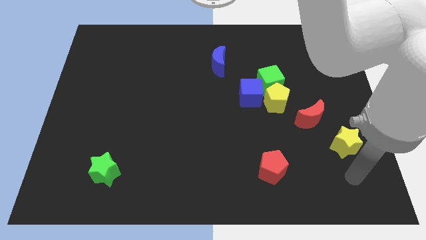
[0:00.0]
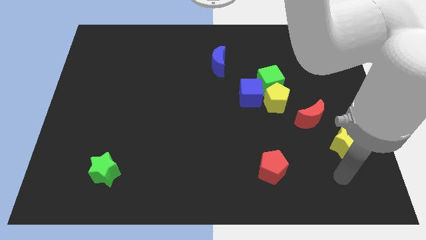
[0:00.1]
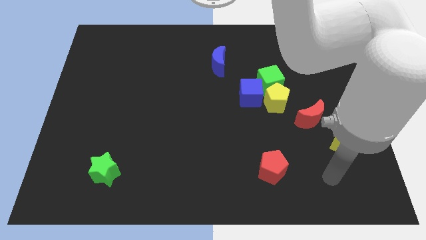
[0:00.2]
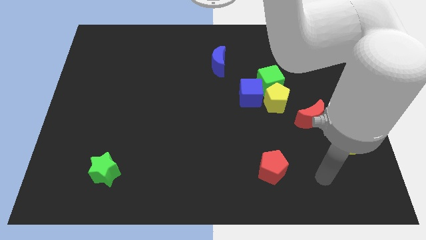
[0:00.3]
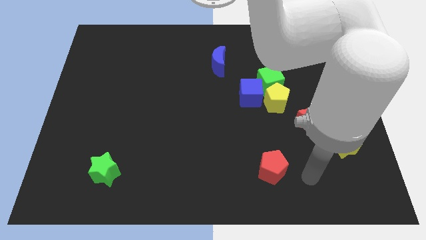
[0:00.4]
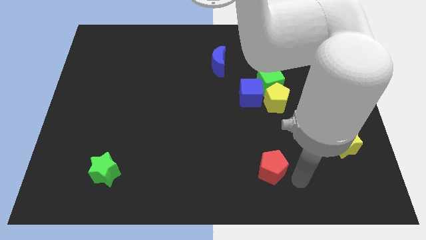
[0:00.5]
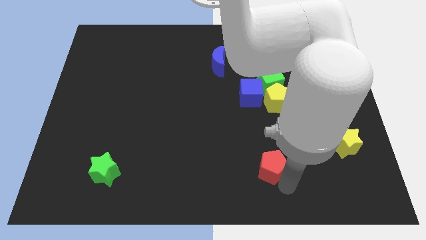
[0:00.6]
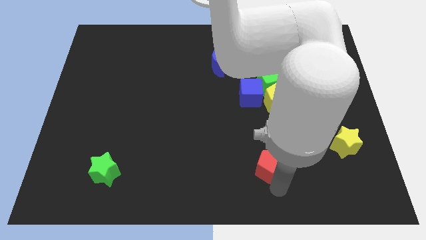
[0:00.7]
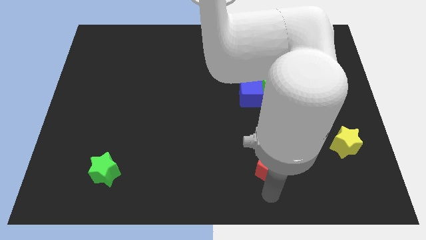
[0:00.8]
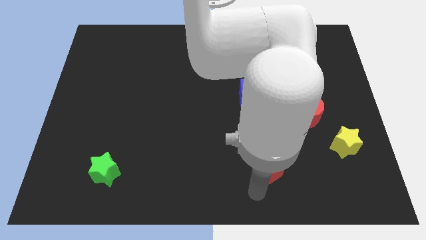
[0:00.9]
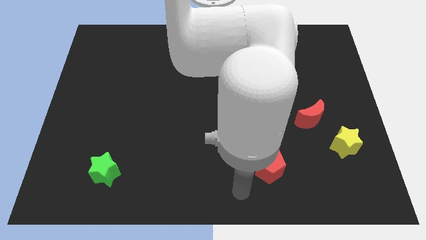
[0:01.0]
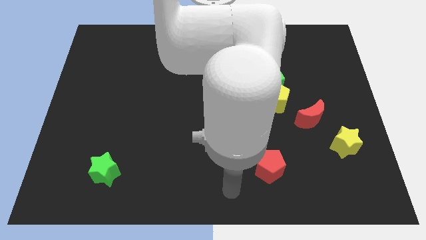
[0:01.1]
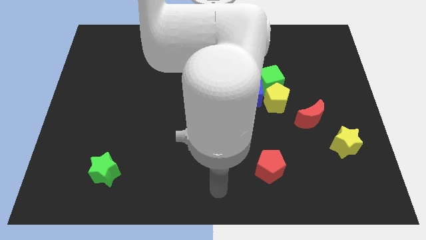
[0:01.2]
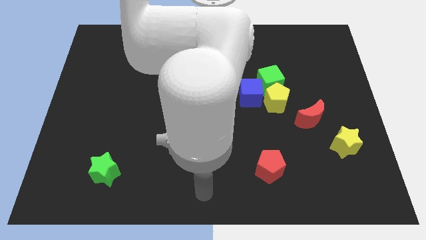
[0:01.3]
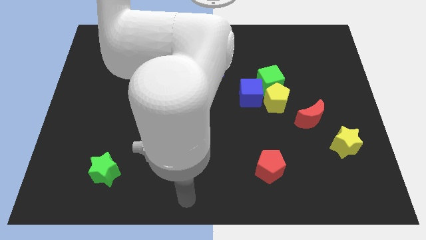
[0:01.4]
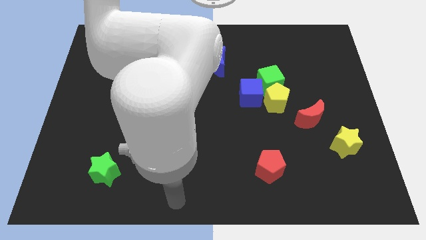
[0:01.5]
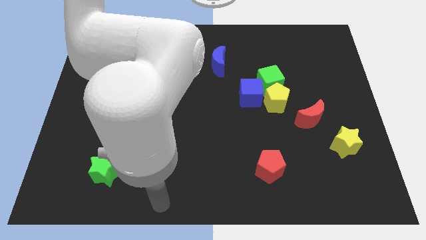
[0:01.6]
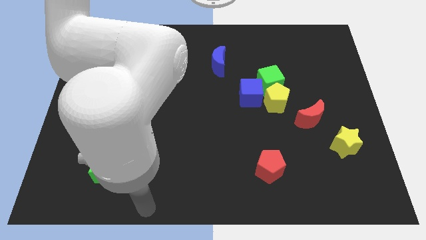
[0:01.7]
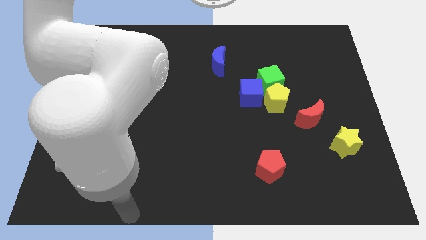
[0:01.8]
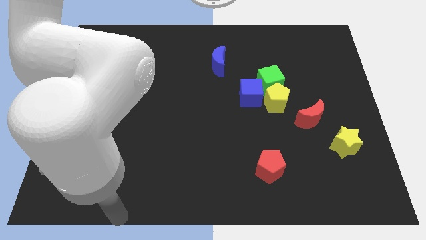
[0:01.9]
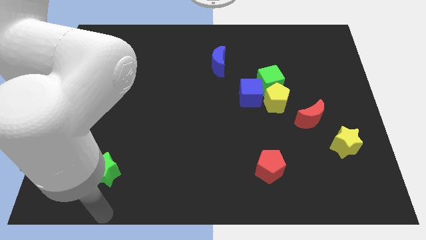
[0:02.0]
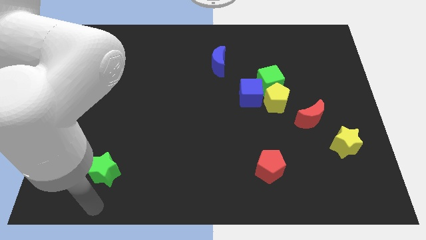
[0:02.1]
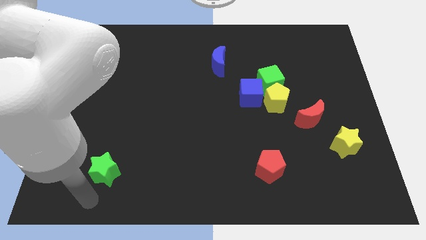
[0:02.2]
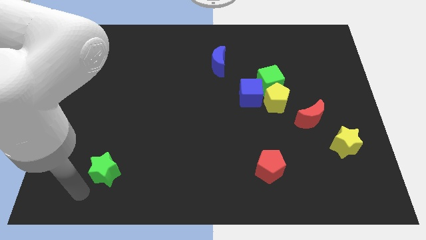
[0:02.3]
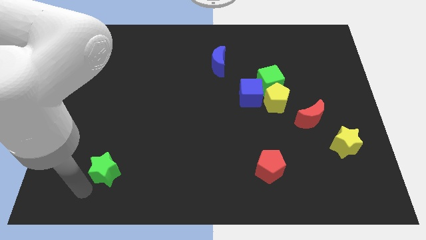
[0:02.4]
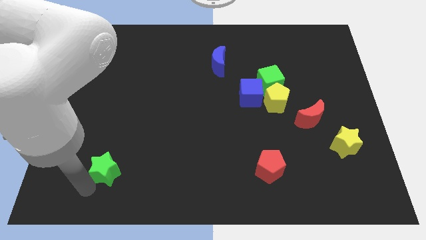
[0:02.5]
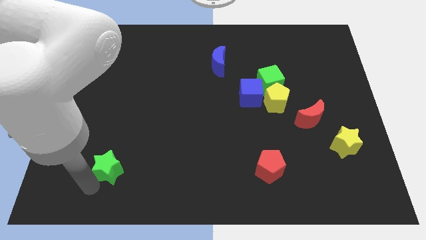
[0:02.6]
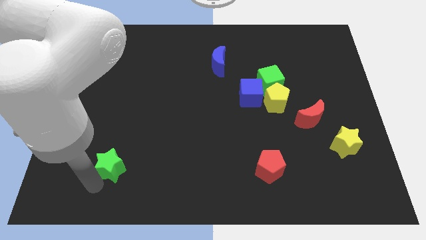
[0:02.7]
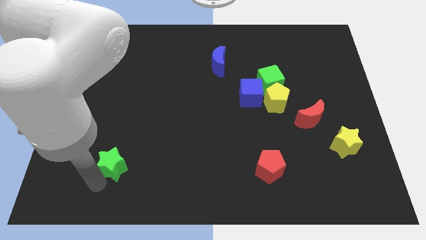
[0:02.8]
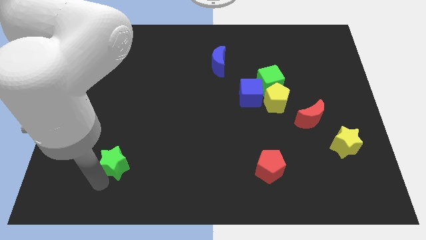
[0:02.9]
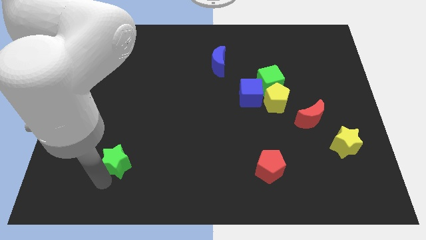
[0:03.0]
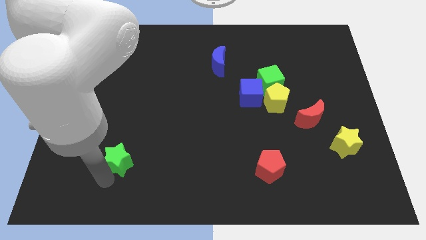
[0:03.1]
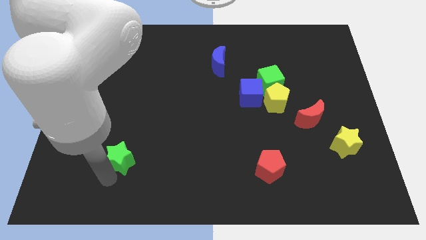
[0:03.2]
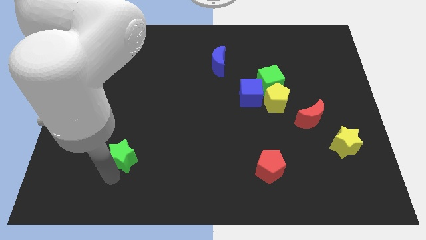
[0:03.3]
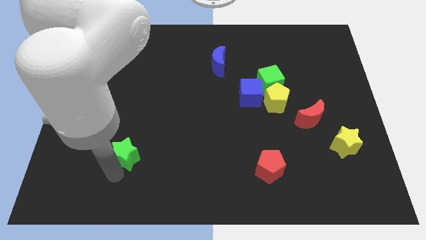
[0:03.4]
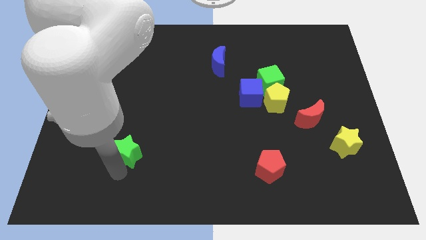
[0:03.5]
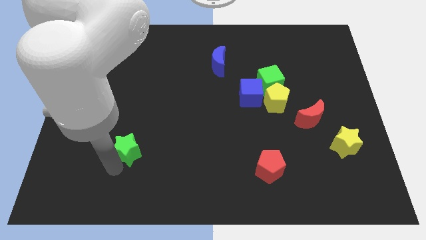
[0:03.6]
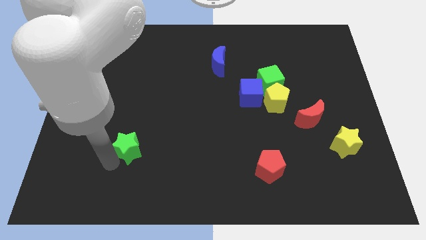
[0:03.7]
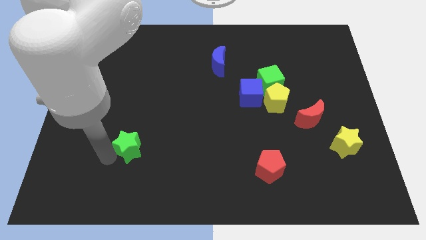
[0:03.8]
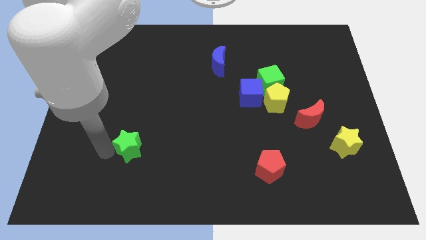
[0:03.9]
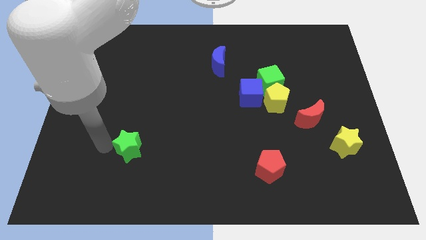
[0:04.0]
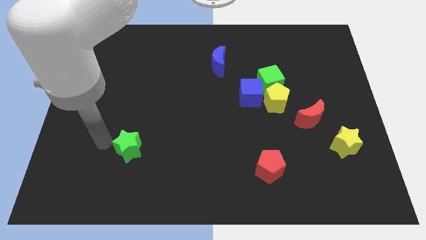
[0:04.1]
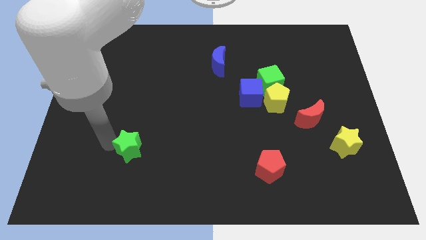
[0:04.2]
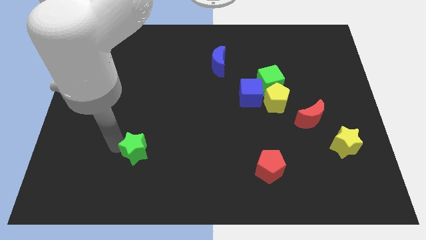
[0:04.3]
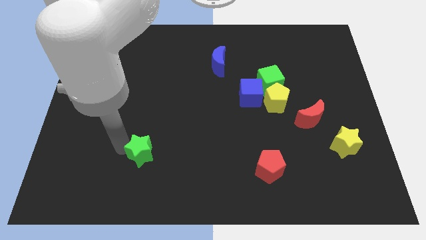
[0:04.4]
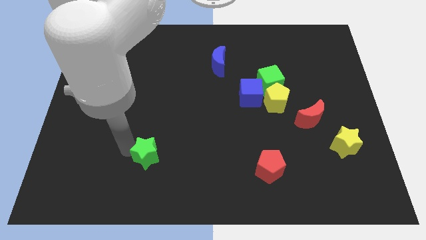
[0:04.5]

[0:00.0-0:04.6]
slide the green star a little bit to the right

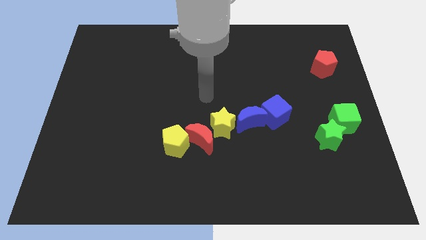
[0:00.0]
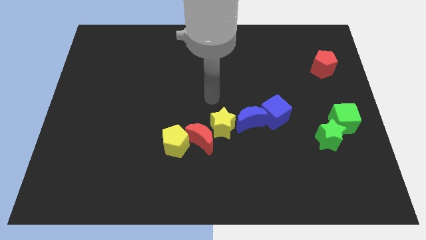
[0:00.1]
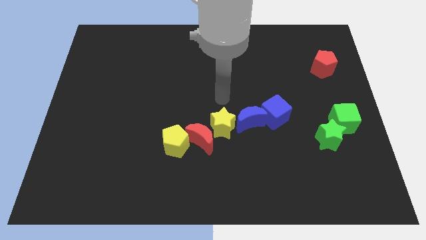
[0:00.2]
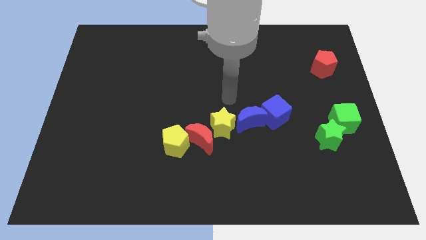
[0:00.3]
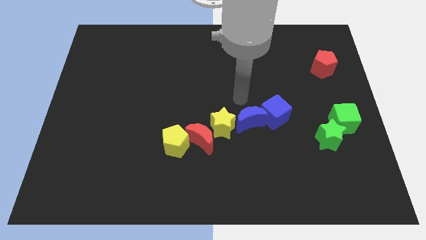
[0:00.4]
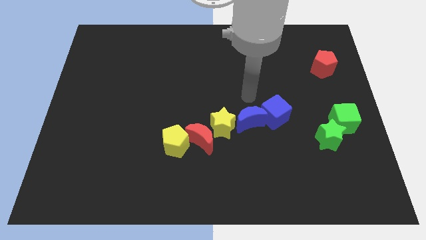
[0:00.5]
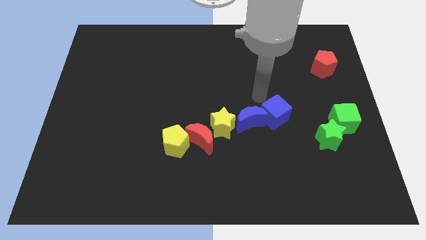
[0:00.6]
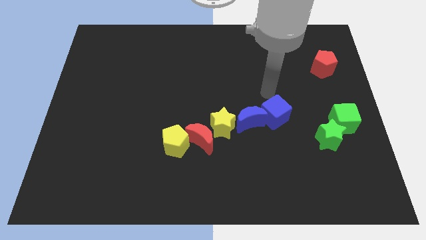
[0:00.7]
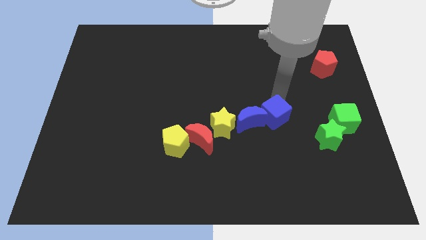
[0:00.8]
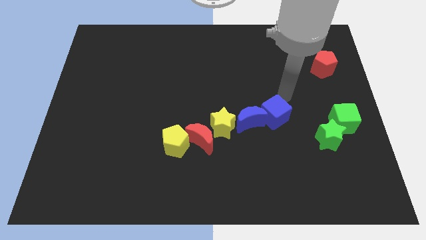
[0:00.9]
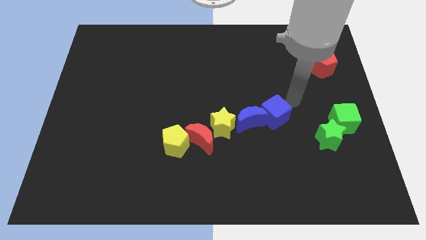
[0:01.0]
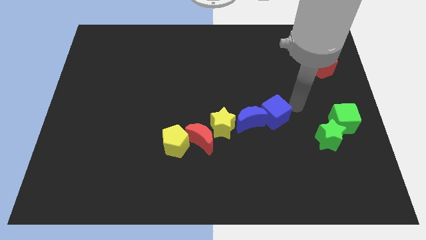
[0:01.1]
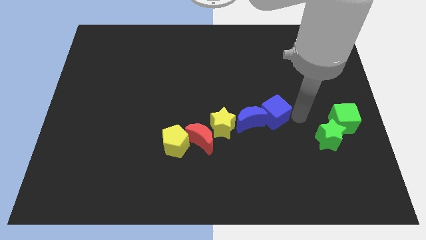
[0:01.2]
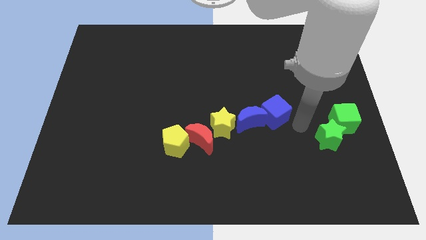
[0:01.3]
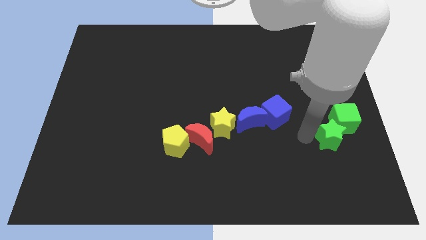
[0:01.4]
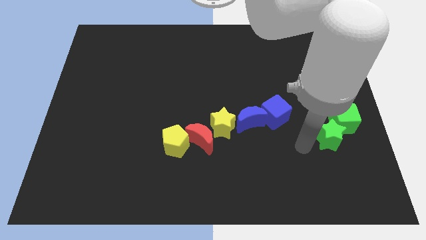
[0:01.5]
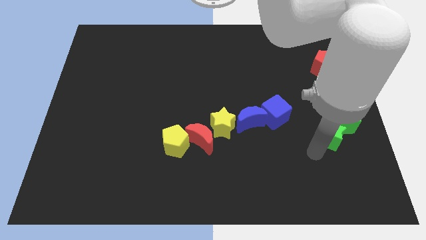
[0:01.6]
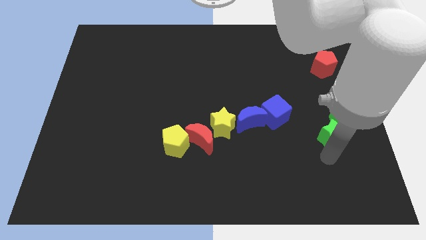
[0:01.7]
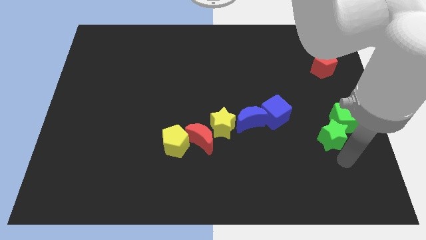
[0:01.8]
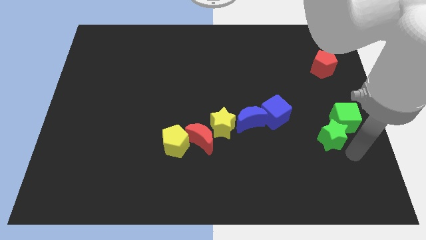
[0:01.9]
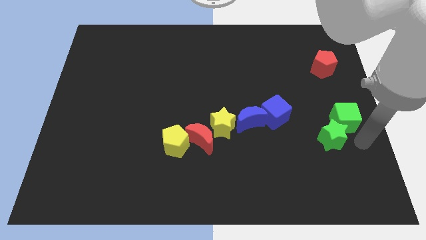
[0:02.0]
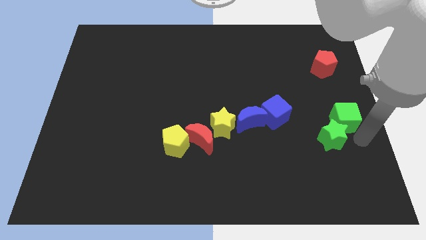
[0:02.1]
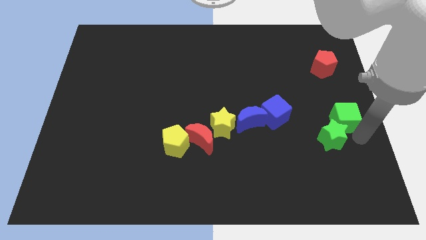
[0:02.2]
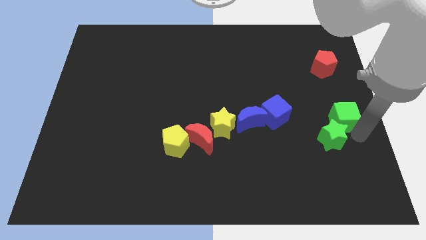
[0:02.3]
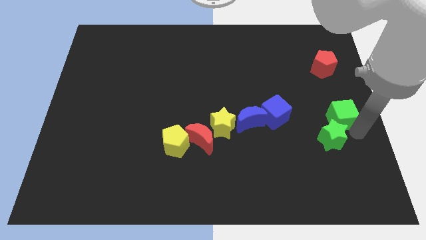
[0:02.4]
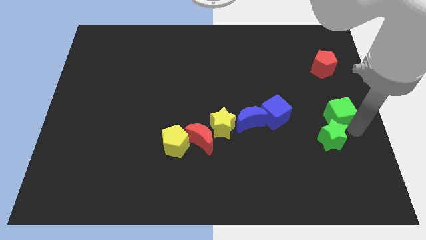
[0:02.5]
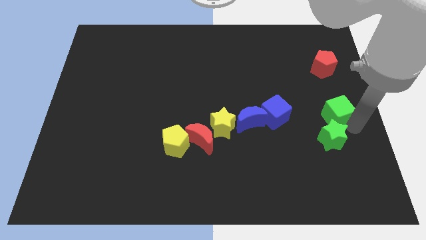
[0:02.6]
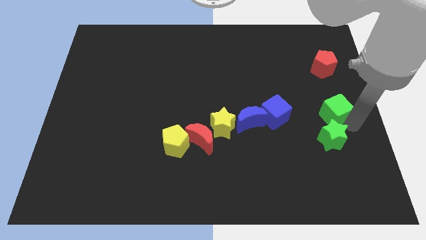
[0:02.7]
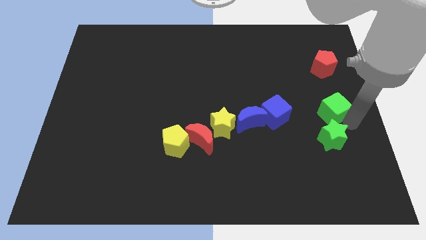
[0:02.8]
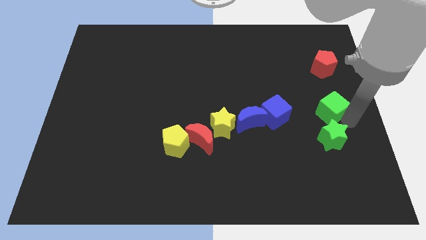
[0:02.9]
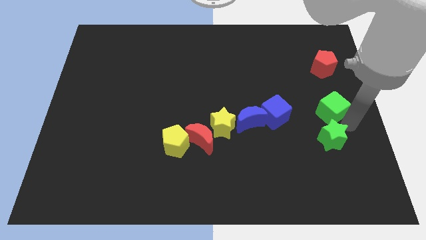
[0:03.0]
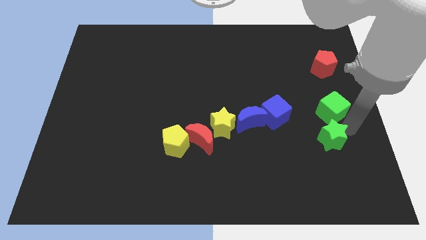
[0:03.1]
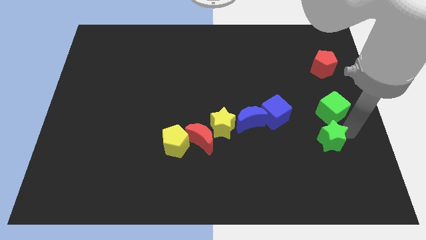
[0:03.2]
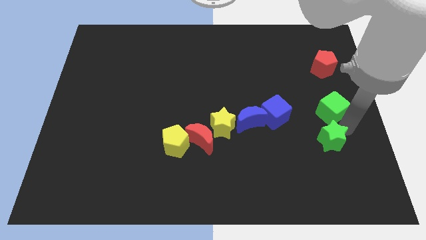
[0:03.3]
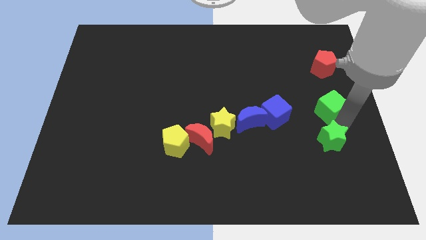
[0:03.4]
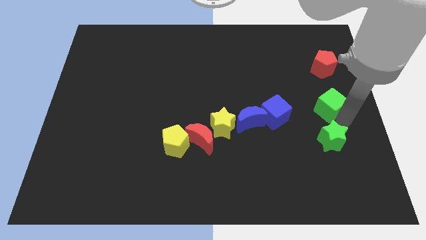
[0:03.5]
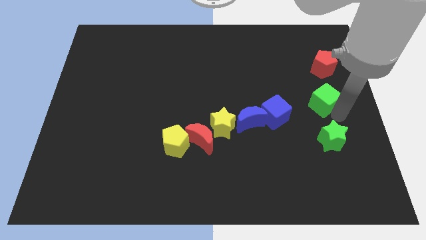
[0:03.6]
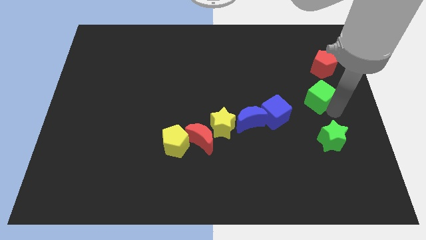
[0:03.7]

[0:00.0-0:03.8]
move the green cube up and left slightly
